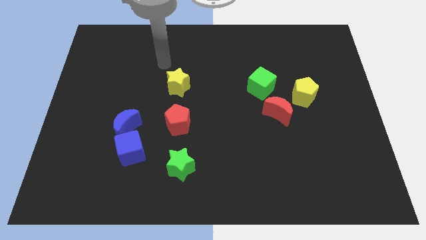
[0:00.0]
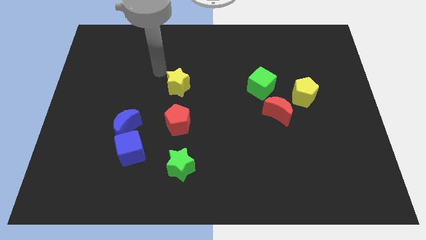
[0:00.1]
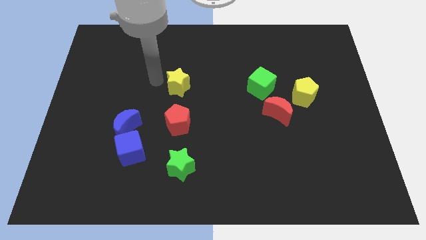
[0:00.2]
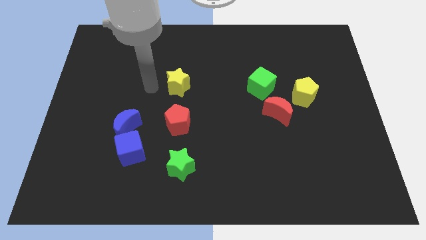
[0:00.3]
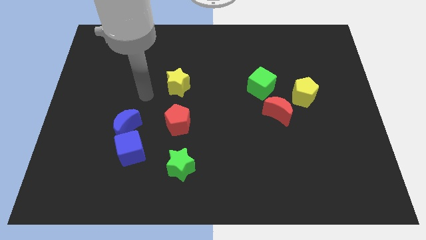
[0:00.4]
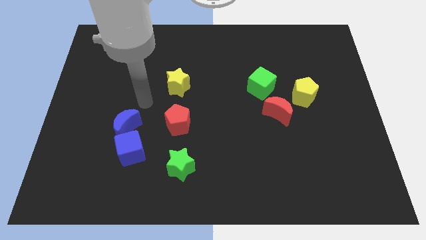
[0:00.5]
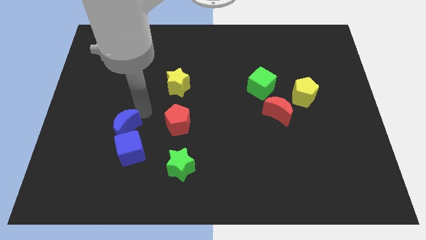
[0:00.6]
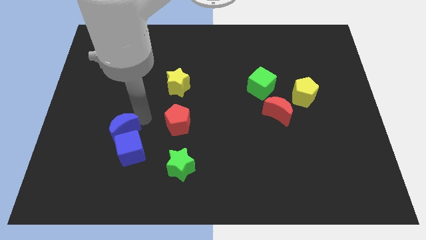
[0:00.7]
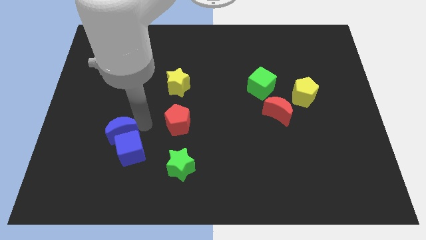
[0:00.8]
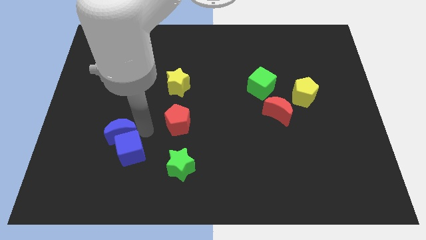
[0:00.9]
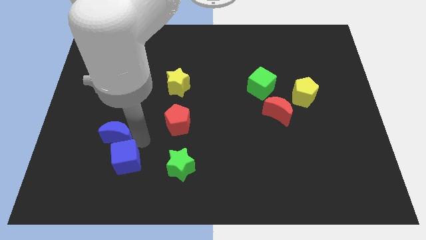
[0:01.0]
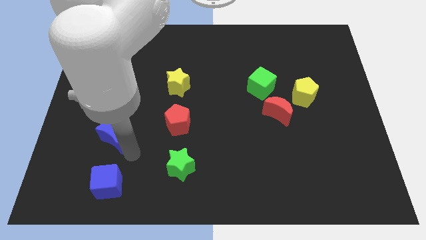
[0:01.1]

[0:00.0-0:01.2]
separate the blue moon from the blue cube

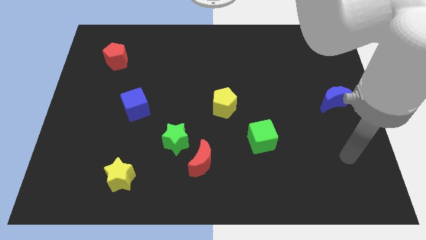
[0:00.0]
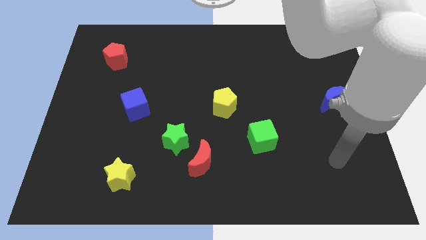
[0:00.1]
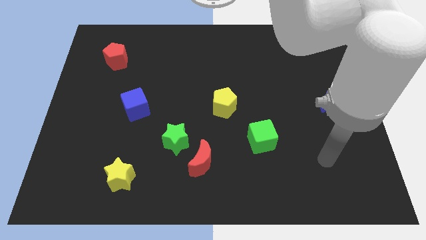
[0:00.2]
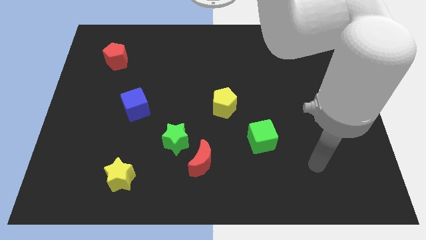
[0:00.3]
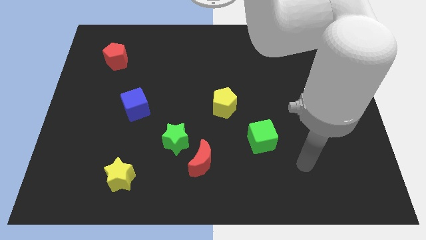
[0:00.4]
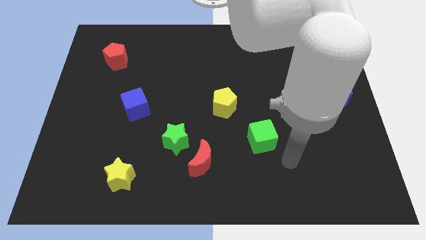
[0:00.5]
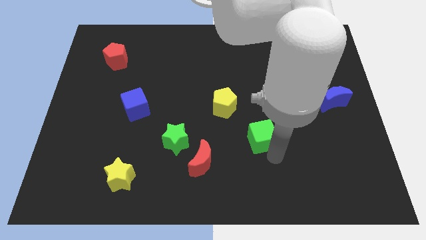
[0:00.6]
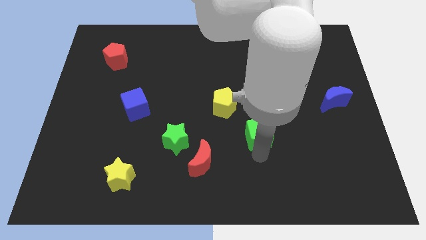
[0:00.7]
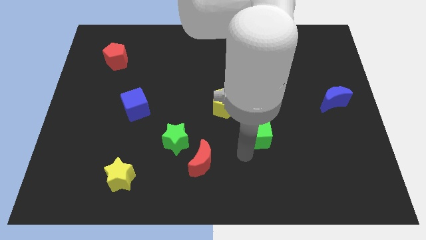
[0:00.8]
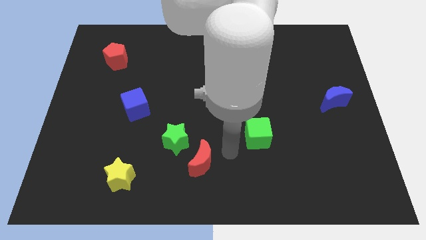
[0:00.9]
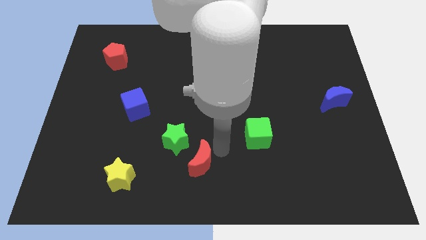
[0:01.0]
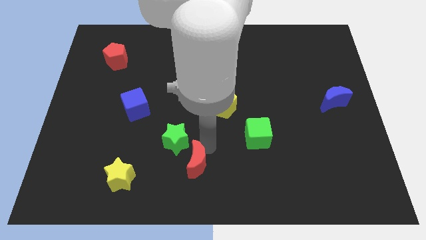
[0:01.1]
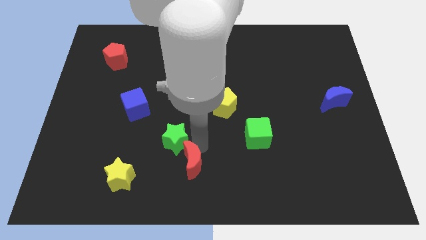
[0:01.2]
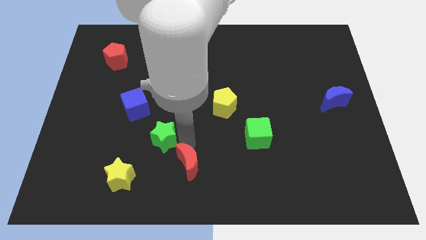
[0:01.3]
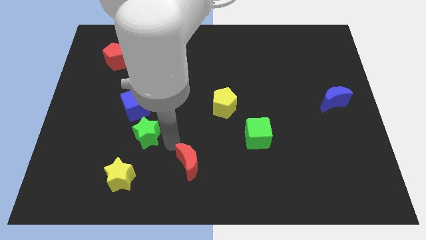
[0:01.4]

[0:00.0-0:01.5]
separate the red moon from the green star

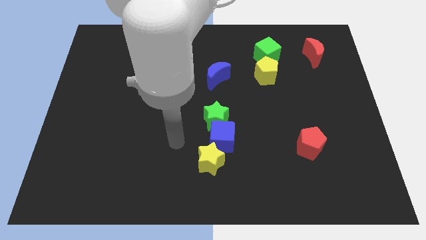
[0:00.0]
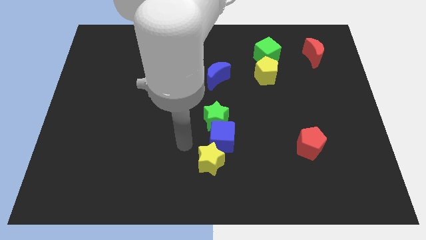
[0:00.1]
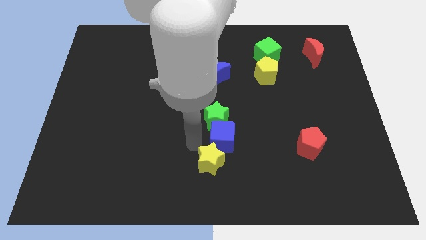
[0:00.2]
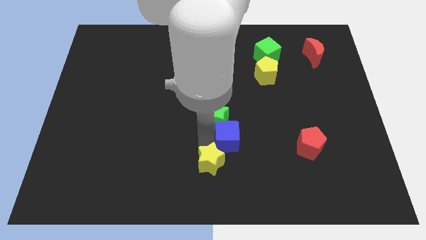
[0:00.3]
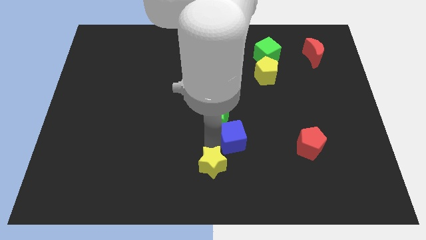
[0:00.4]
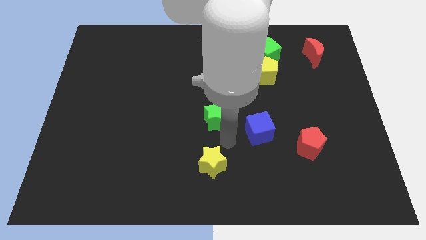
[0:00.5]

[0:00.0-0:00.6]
separate the green star from the blue cube

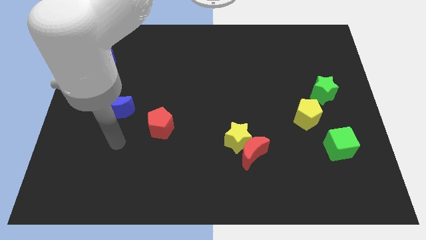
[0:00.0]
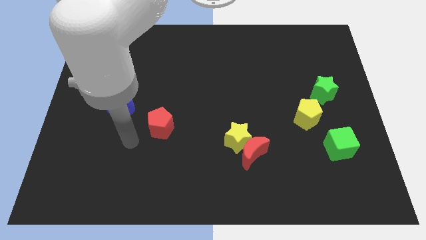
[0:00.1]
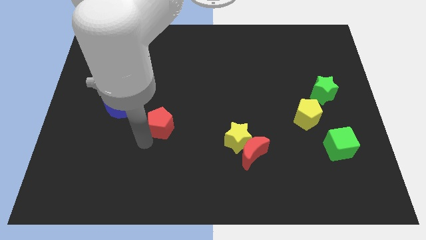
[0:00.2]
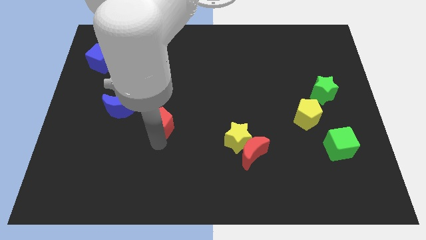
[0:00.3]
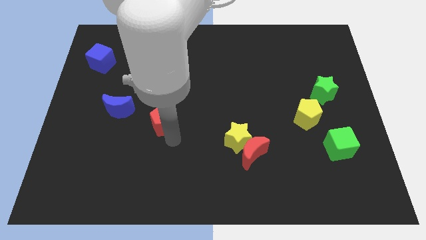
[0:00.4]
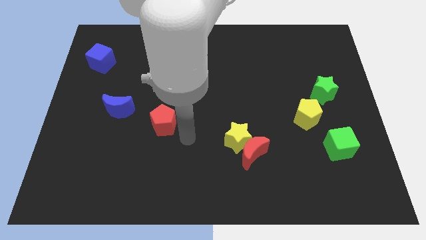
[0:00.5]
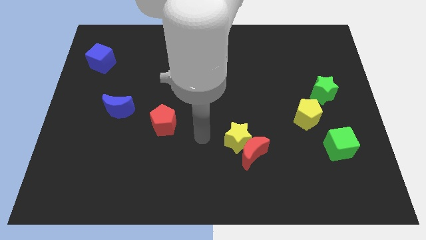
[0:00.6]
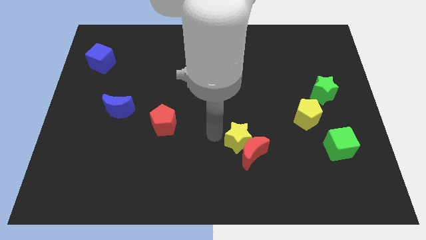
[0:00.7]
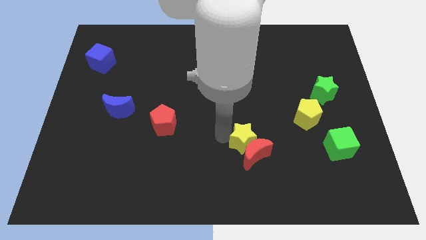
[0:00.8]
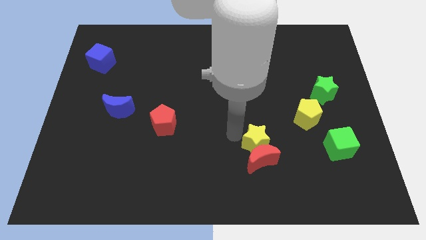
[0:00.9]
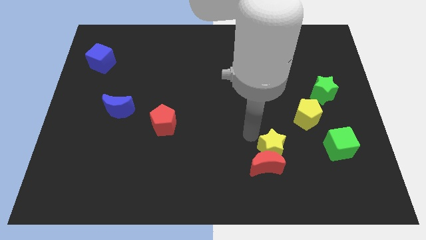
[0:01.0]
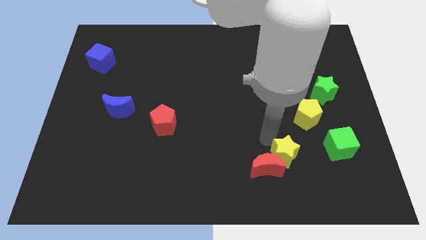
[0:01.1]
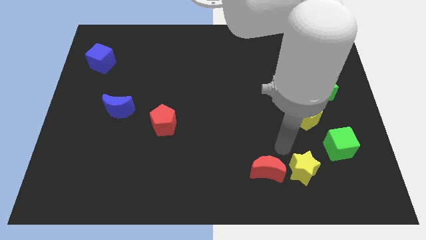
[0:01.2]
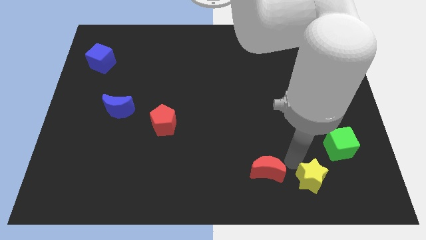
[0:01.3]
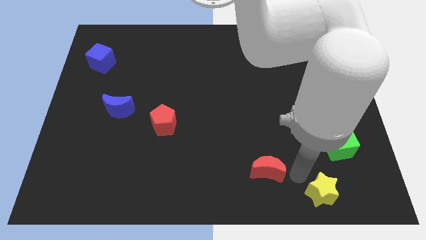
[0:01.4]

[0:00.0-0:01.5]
move the red moon away from the yellow star

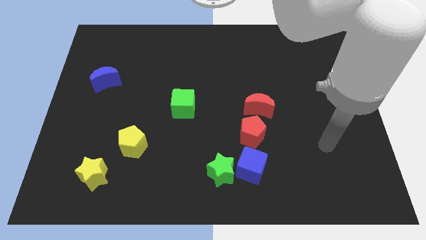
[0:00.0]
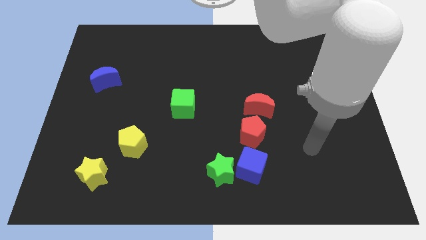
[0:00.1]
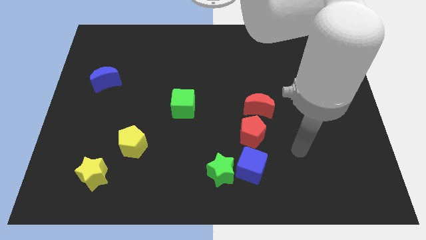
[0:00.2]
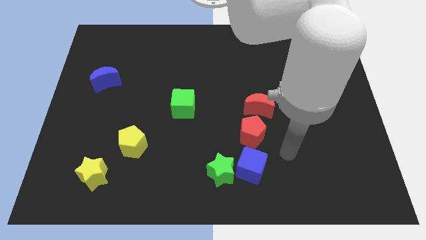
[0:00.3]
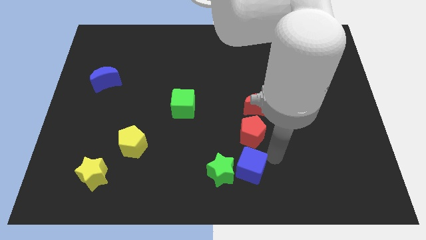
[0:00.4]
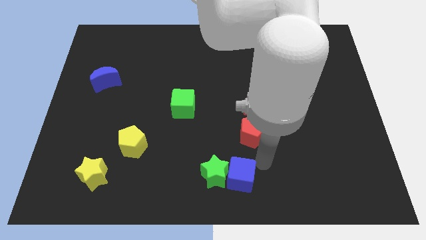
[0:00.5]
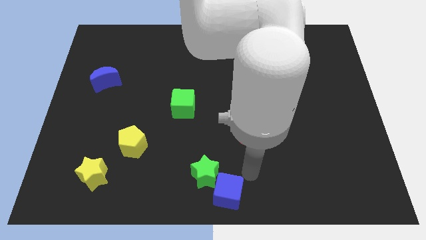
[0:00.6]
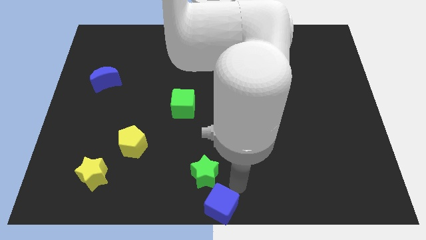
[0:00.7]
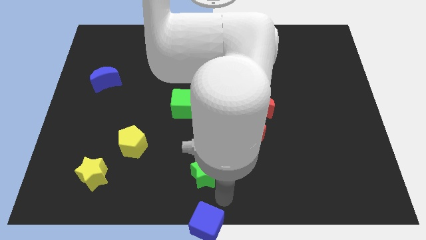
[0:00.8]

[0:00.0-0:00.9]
pull the green star apart from the blue cube

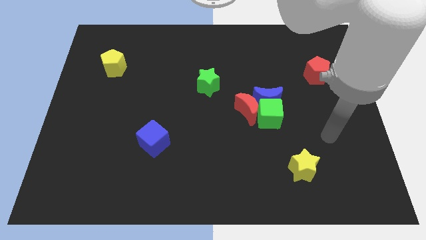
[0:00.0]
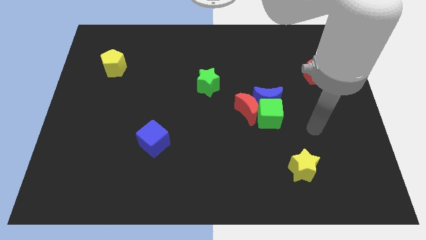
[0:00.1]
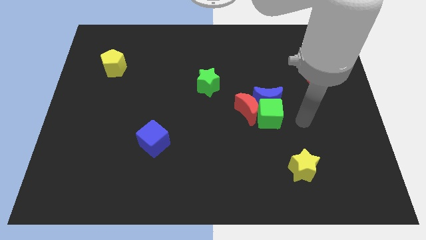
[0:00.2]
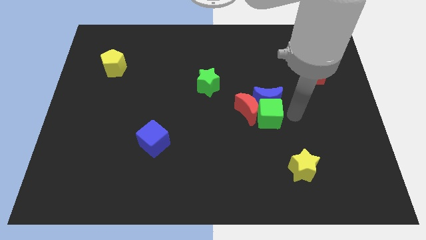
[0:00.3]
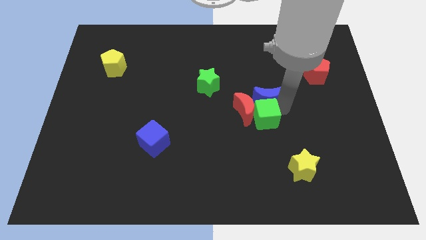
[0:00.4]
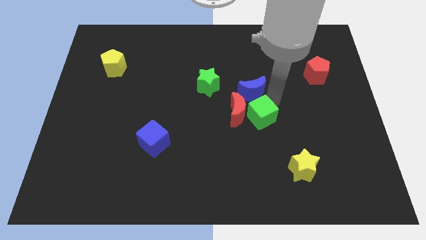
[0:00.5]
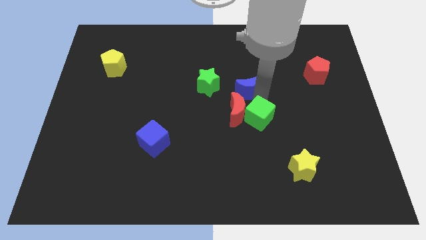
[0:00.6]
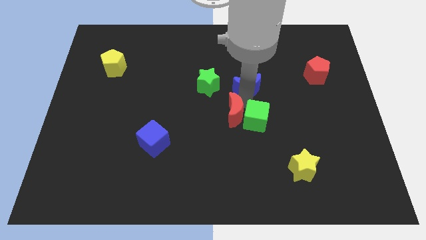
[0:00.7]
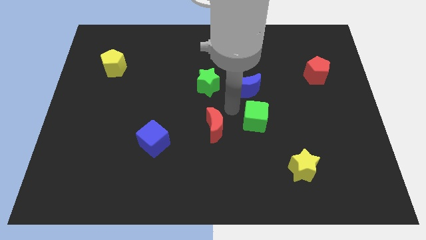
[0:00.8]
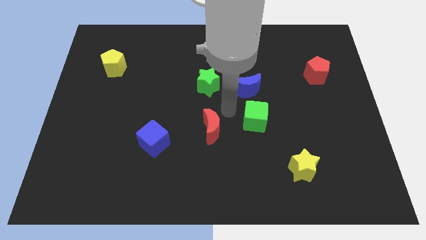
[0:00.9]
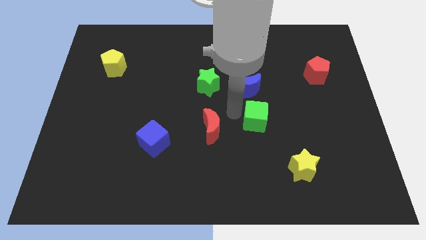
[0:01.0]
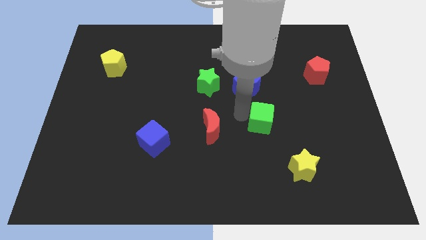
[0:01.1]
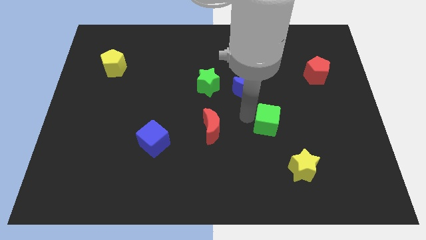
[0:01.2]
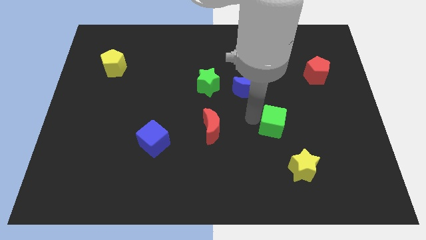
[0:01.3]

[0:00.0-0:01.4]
pull the green cube apart from the blue moon and red moon

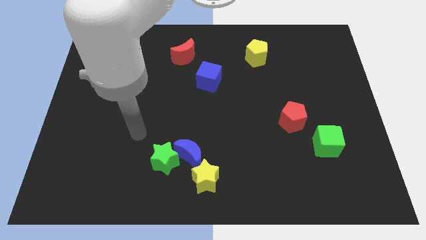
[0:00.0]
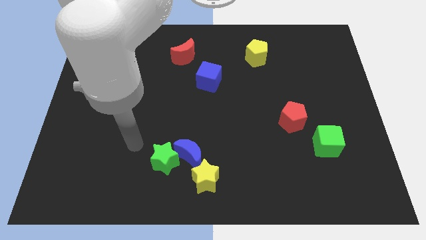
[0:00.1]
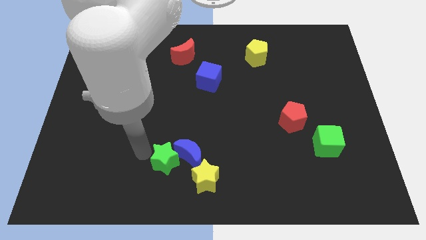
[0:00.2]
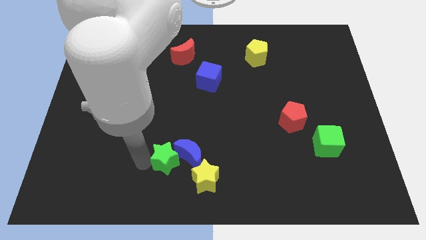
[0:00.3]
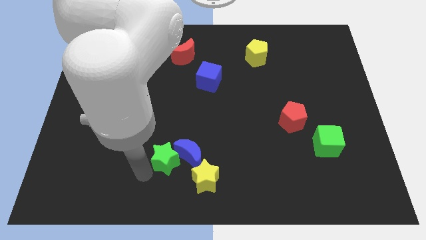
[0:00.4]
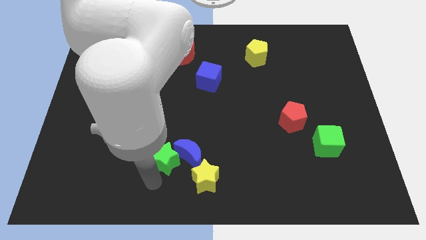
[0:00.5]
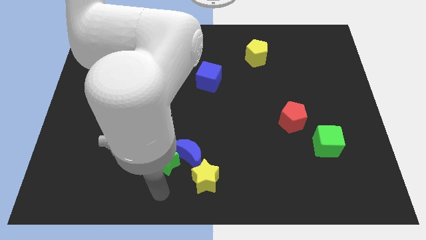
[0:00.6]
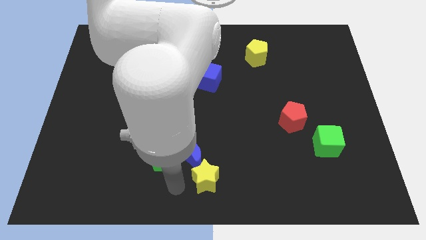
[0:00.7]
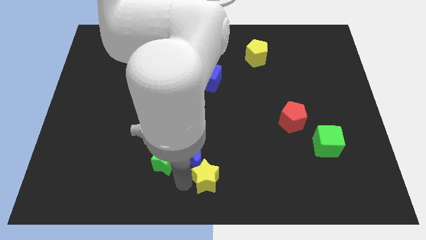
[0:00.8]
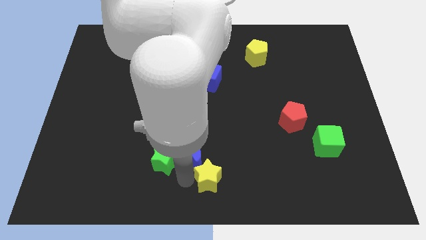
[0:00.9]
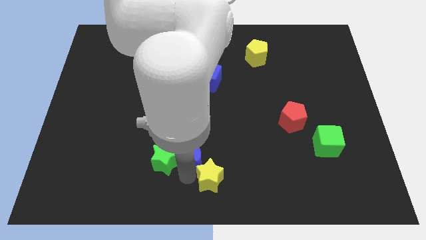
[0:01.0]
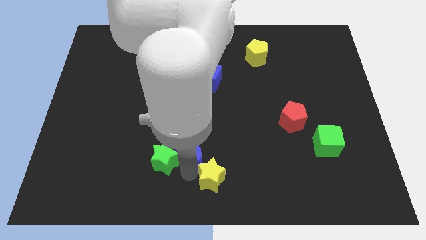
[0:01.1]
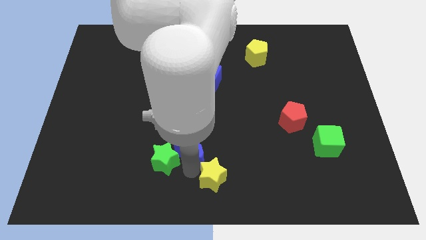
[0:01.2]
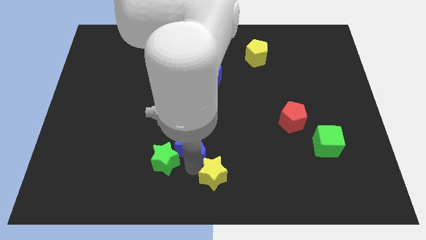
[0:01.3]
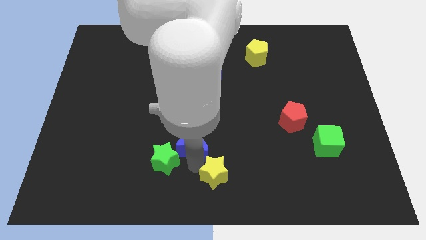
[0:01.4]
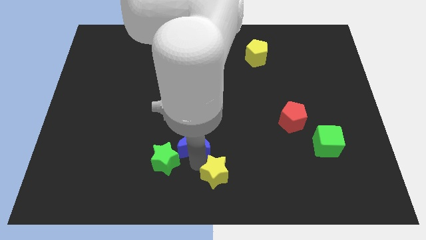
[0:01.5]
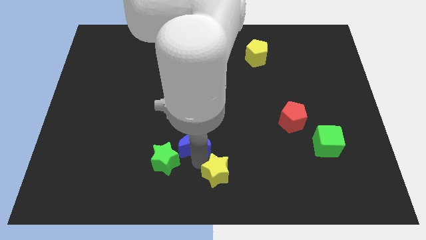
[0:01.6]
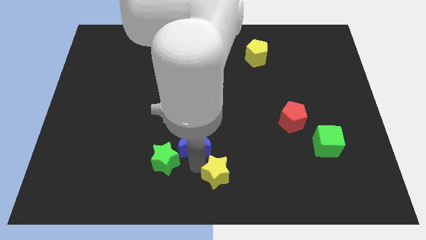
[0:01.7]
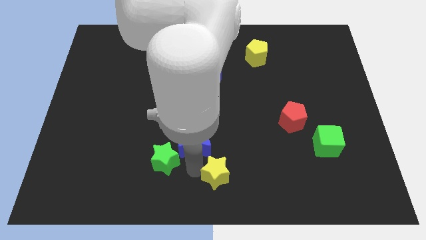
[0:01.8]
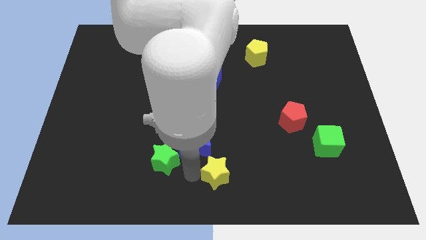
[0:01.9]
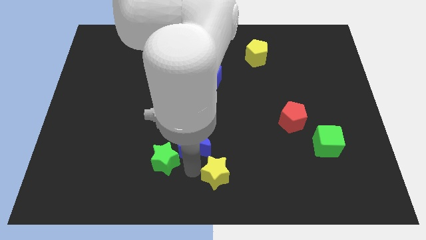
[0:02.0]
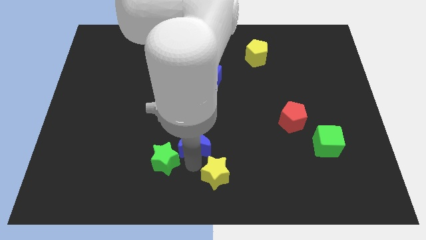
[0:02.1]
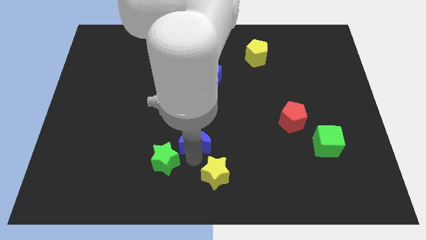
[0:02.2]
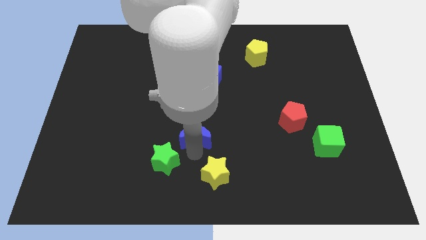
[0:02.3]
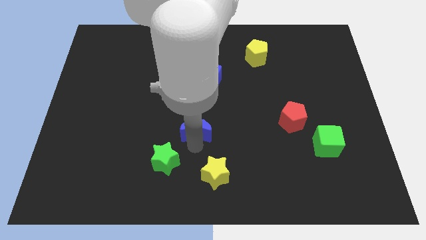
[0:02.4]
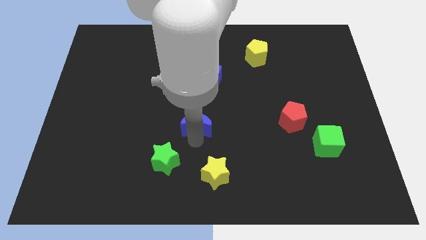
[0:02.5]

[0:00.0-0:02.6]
move the blue moon away from the green star and yellow star
